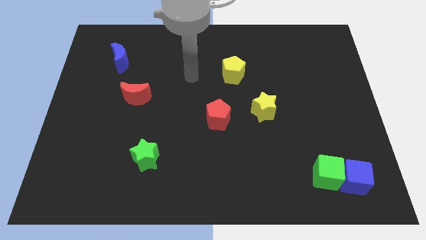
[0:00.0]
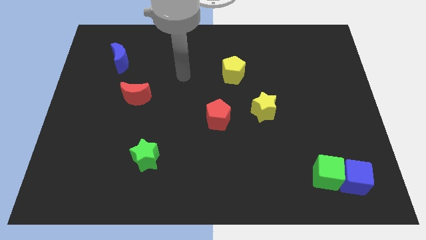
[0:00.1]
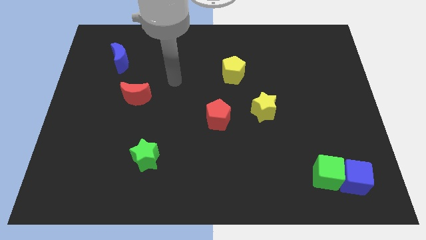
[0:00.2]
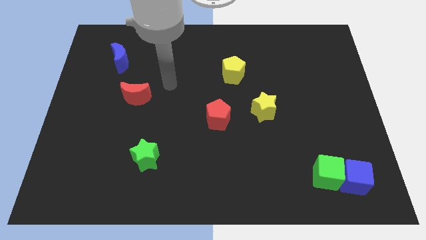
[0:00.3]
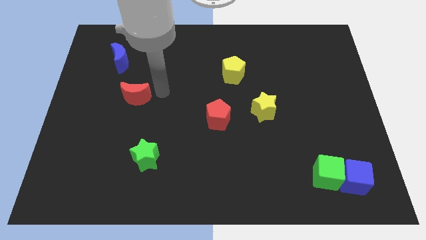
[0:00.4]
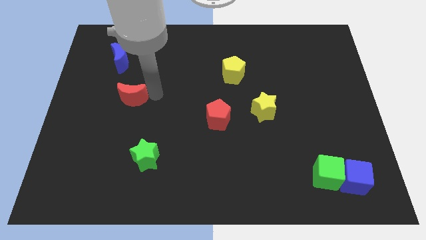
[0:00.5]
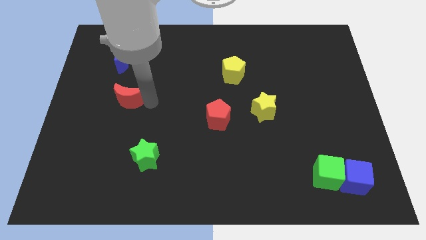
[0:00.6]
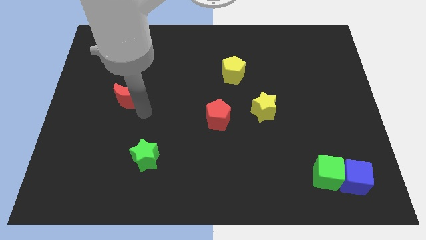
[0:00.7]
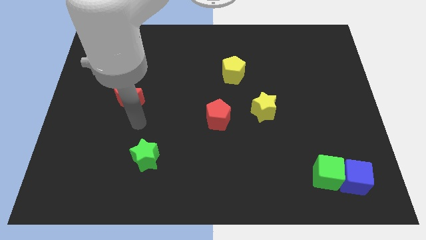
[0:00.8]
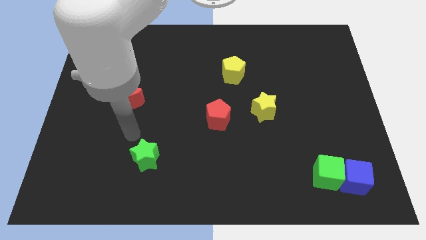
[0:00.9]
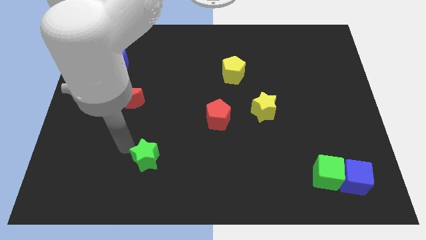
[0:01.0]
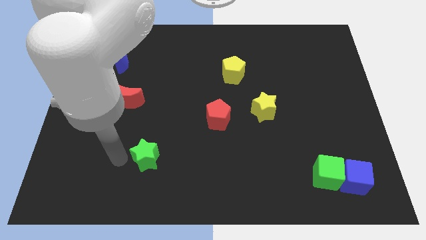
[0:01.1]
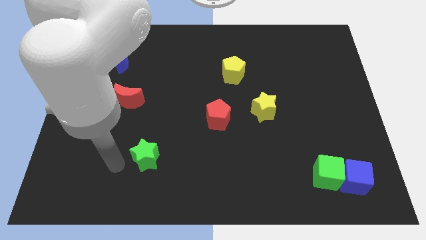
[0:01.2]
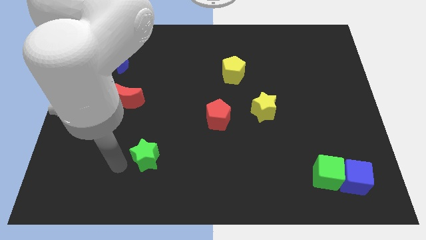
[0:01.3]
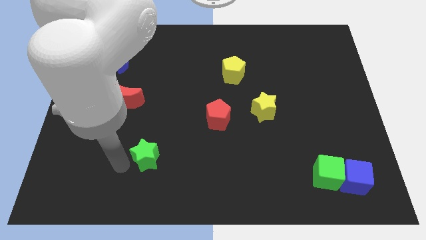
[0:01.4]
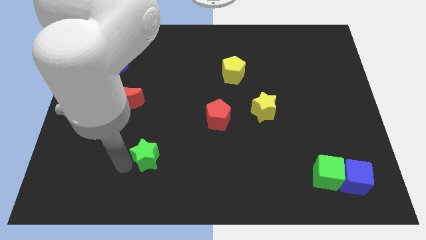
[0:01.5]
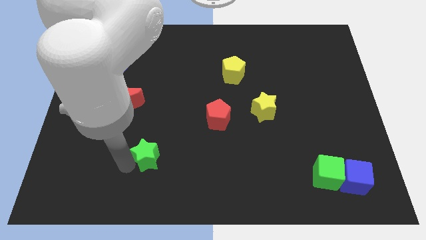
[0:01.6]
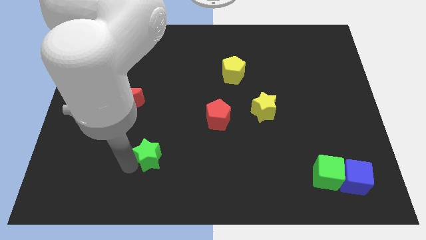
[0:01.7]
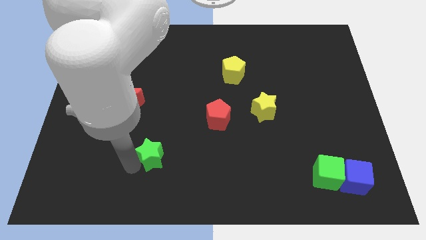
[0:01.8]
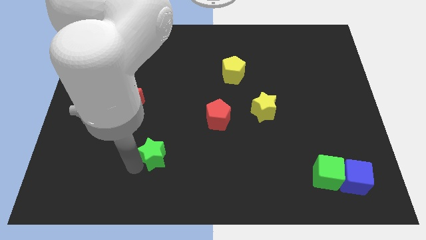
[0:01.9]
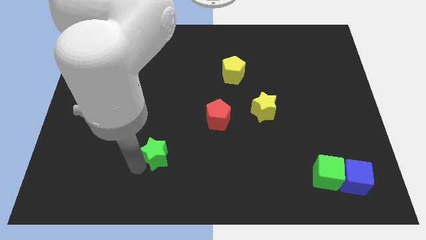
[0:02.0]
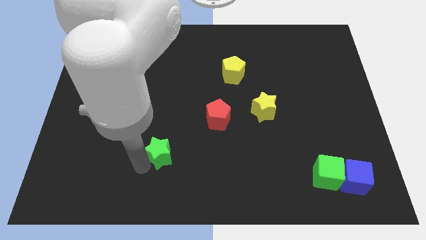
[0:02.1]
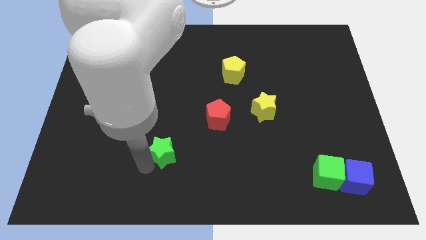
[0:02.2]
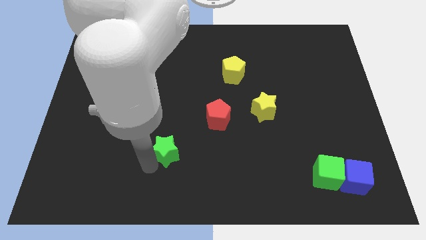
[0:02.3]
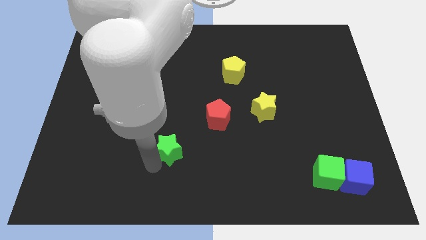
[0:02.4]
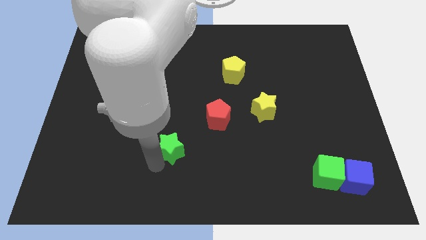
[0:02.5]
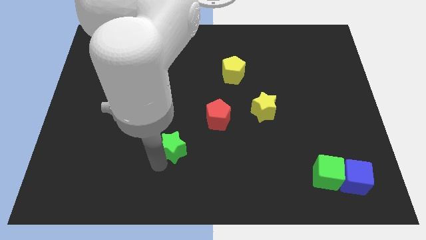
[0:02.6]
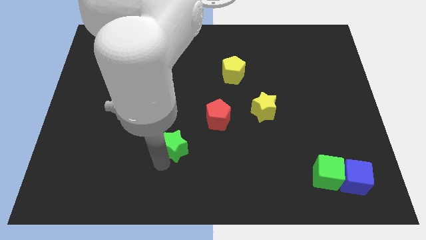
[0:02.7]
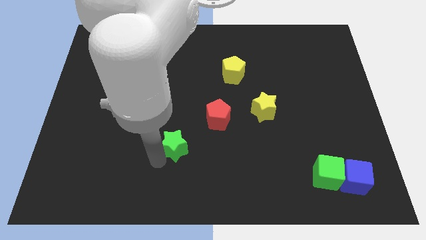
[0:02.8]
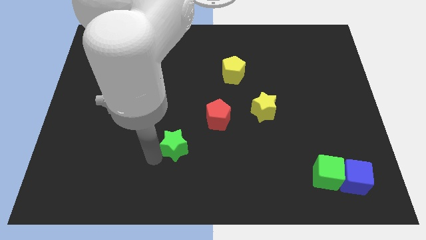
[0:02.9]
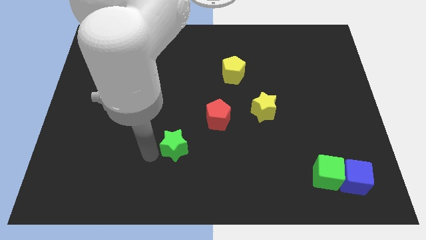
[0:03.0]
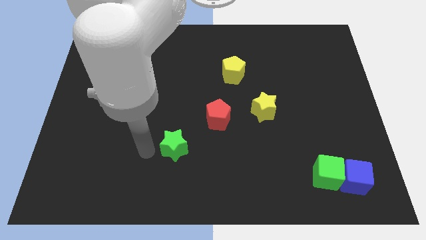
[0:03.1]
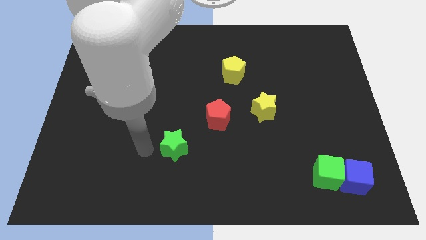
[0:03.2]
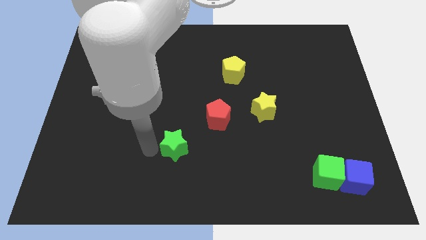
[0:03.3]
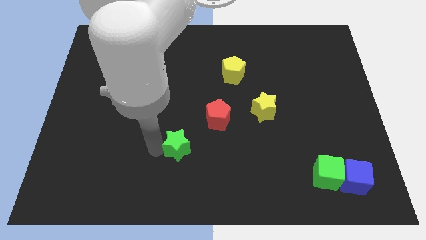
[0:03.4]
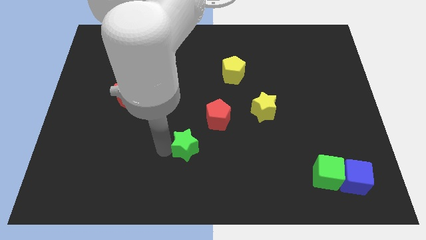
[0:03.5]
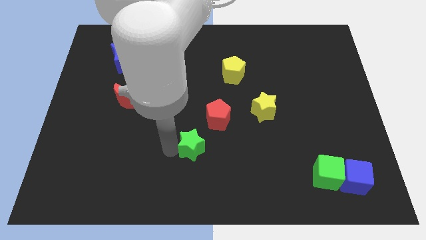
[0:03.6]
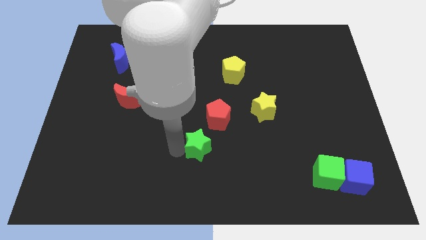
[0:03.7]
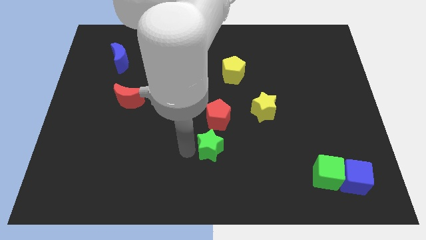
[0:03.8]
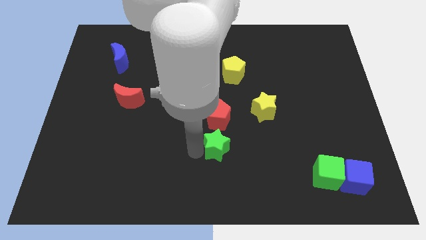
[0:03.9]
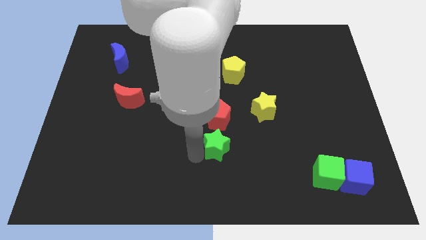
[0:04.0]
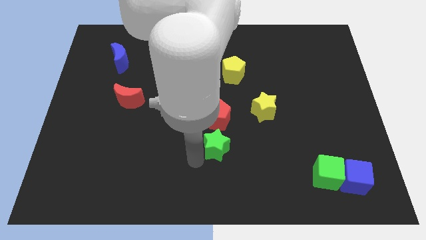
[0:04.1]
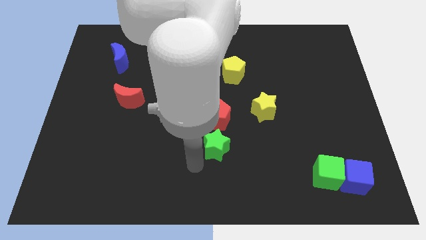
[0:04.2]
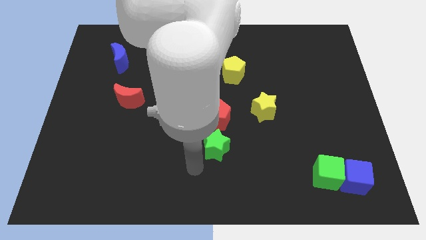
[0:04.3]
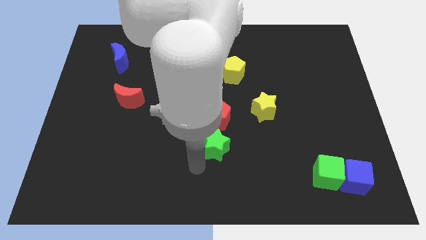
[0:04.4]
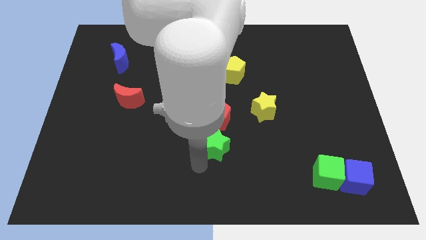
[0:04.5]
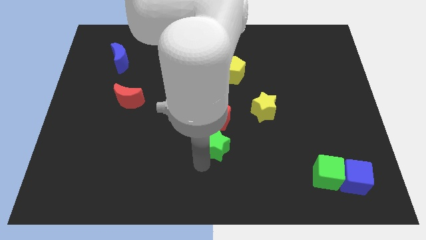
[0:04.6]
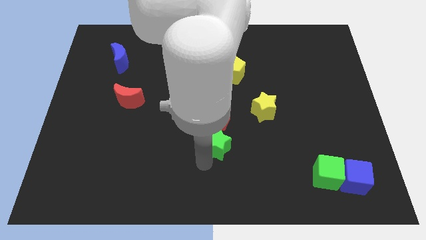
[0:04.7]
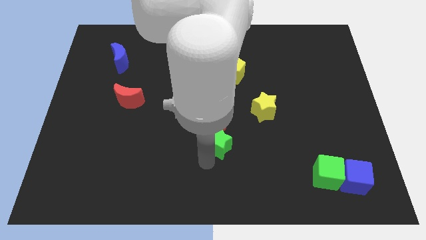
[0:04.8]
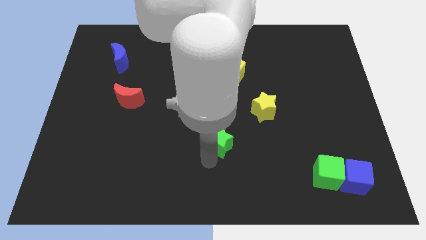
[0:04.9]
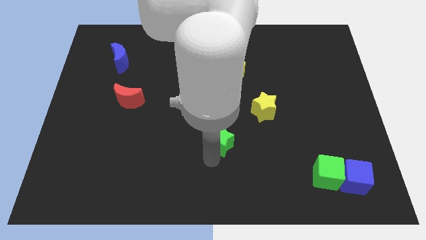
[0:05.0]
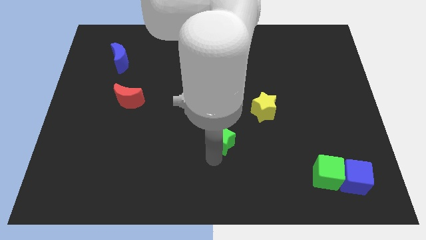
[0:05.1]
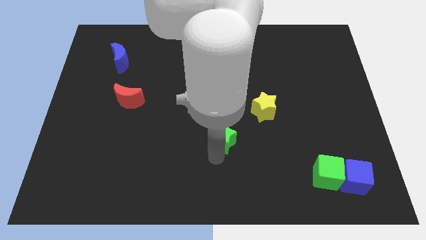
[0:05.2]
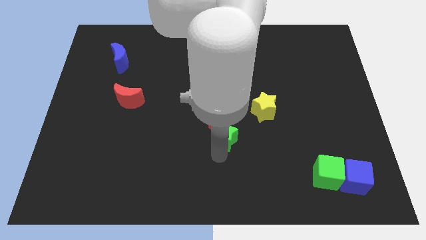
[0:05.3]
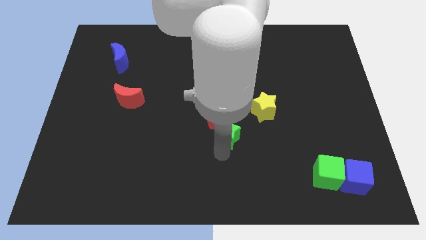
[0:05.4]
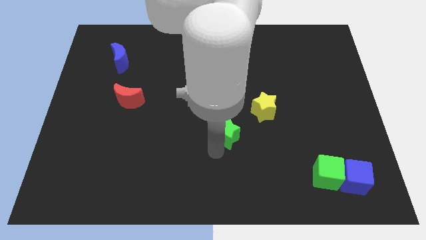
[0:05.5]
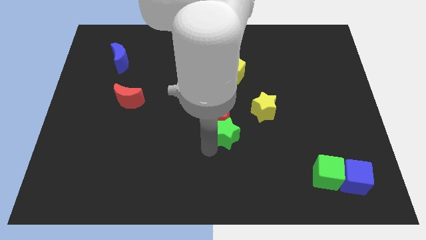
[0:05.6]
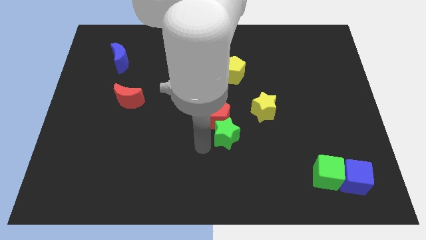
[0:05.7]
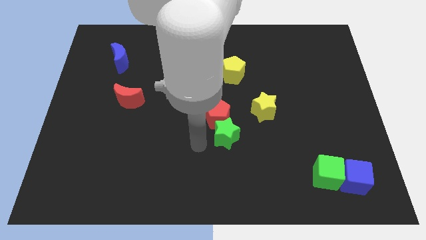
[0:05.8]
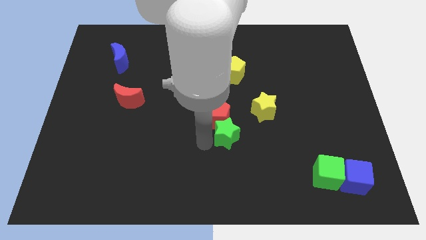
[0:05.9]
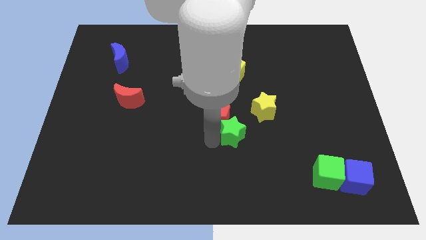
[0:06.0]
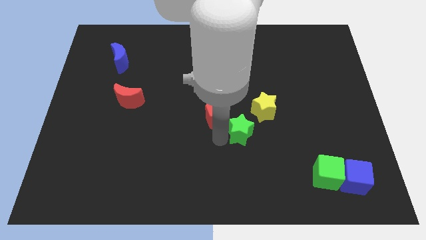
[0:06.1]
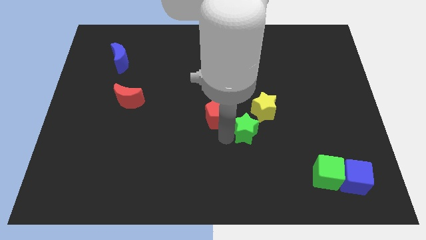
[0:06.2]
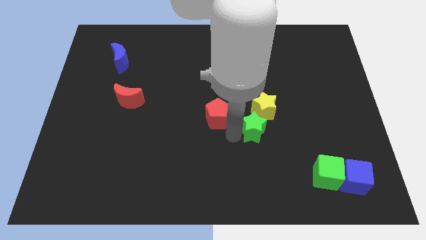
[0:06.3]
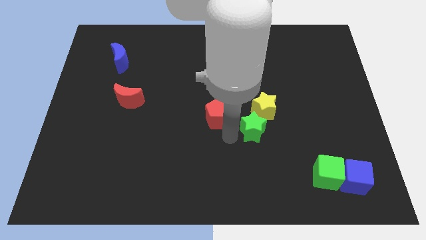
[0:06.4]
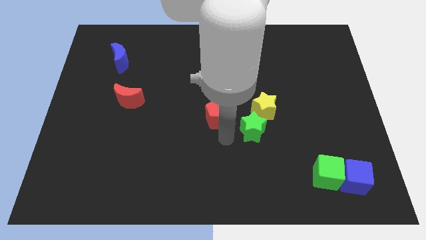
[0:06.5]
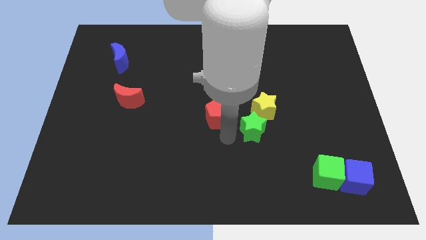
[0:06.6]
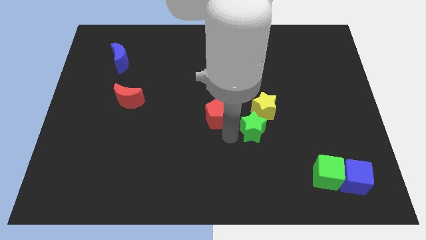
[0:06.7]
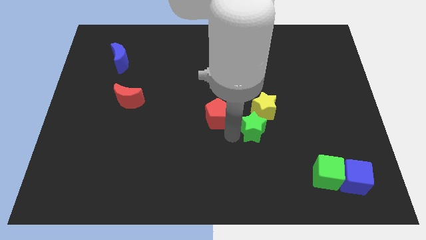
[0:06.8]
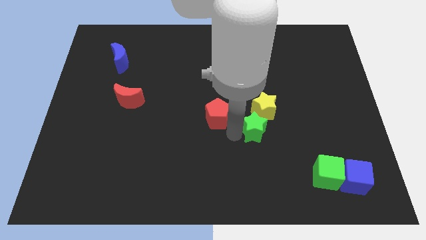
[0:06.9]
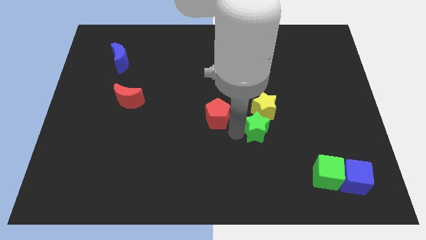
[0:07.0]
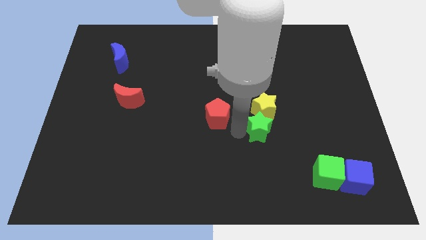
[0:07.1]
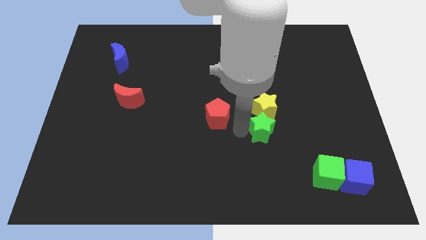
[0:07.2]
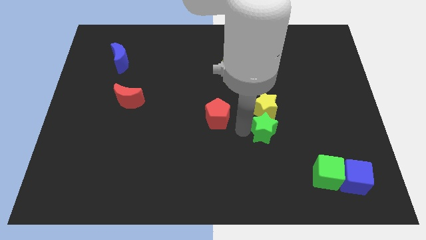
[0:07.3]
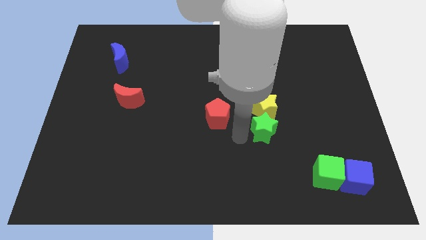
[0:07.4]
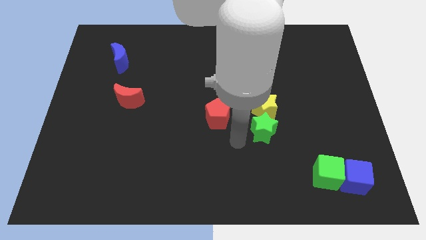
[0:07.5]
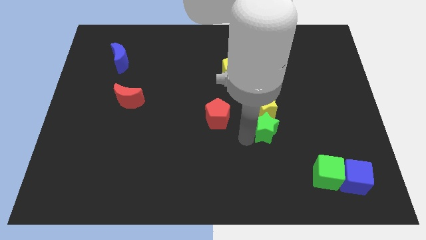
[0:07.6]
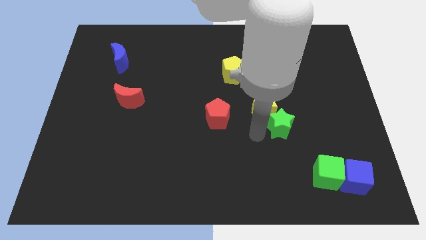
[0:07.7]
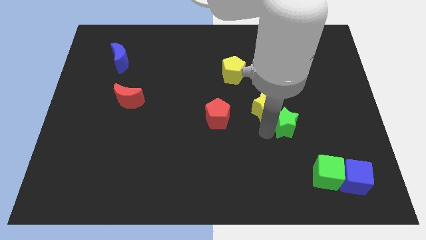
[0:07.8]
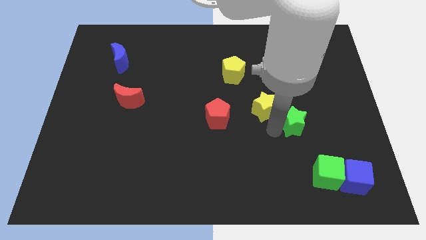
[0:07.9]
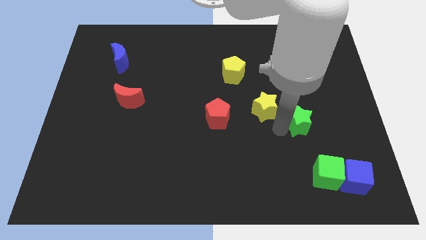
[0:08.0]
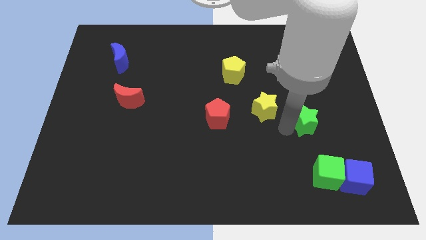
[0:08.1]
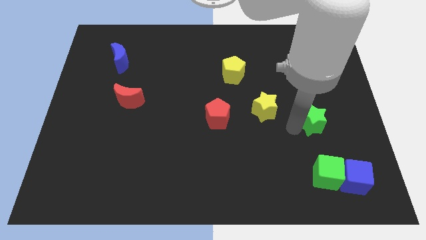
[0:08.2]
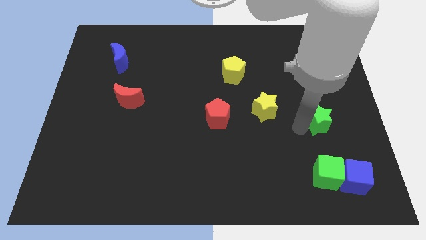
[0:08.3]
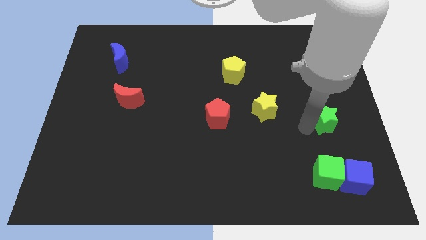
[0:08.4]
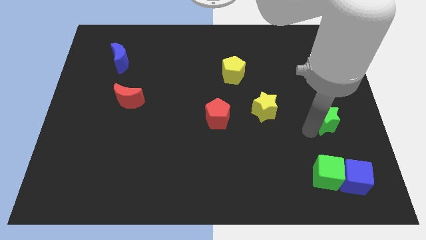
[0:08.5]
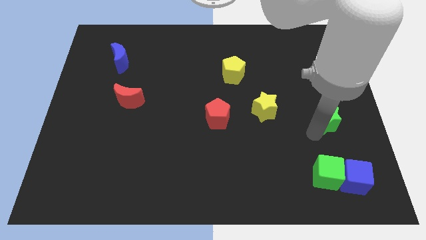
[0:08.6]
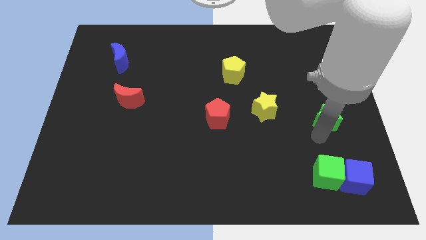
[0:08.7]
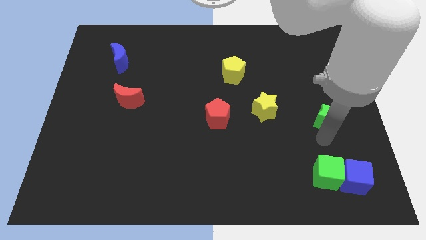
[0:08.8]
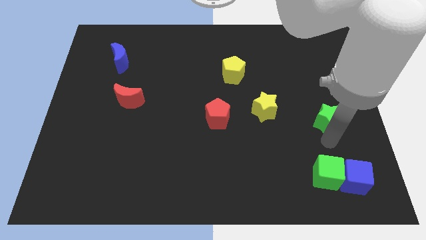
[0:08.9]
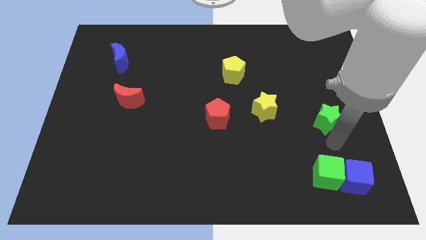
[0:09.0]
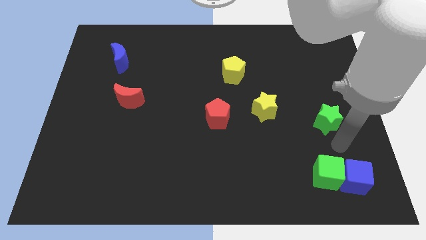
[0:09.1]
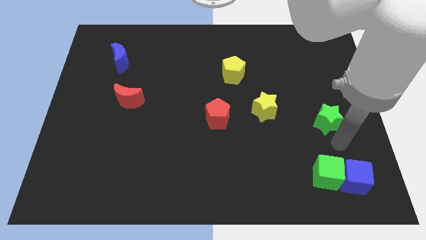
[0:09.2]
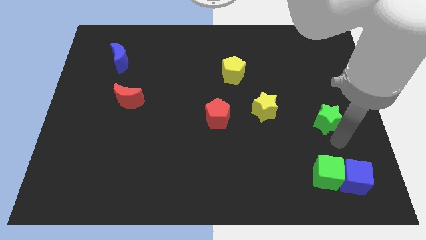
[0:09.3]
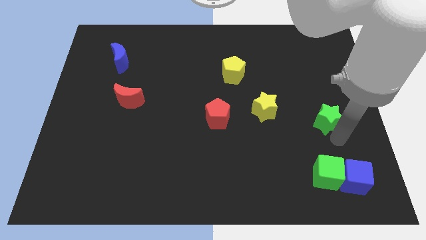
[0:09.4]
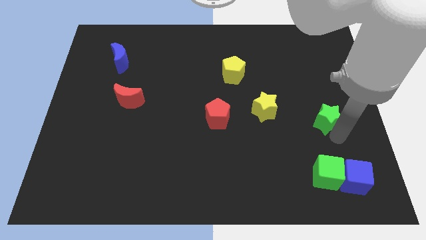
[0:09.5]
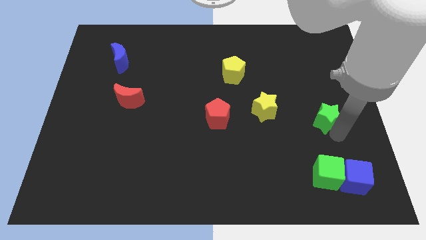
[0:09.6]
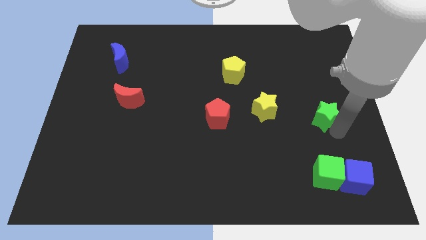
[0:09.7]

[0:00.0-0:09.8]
push the green star to the center right
